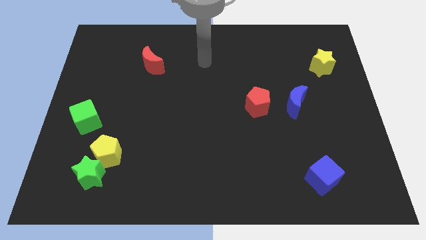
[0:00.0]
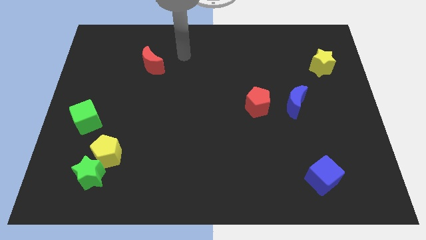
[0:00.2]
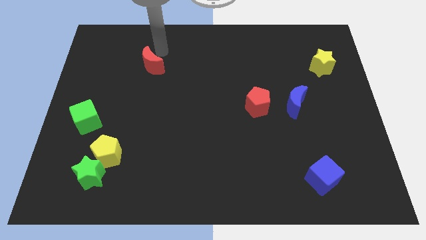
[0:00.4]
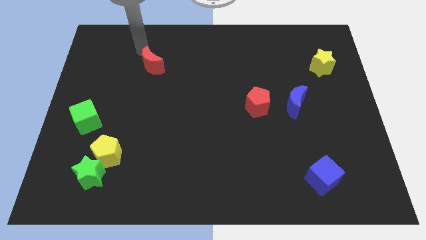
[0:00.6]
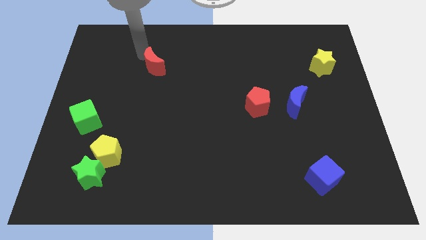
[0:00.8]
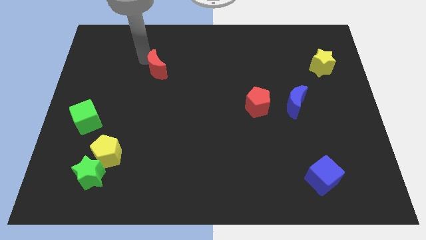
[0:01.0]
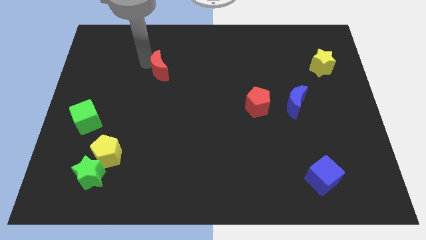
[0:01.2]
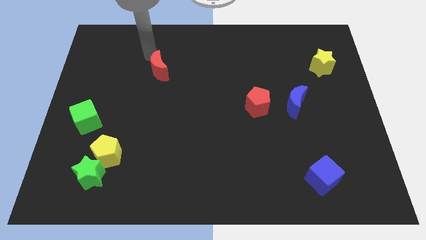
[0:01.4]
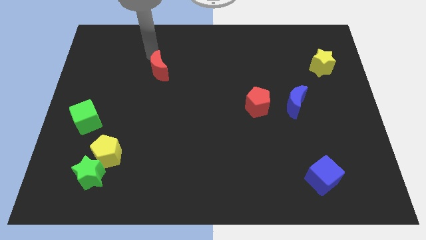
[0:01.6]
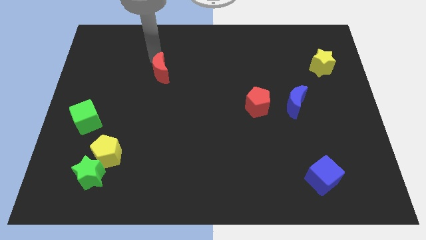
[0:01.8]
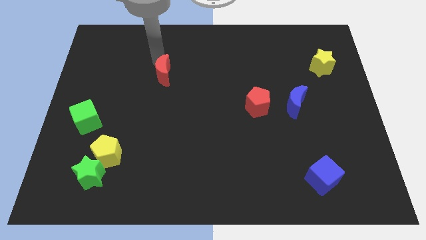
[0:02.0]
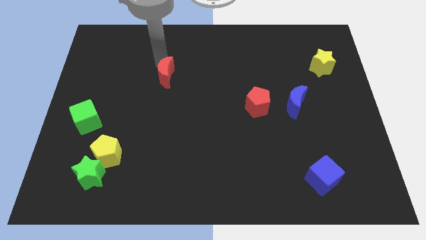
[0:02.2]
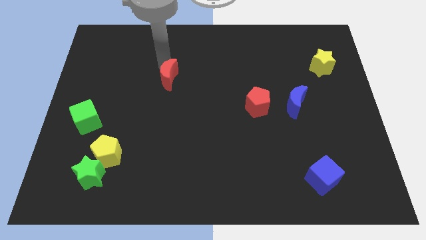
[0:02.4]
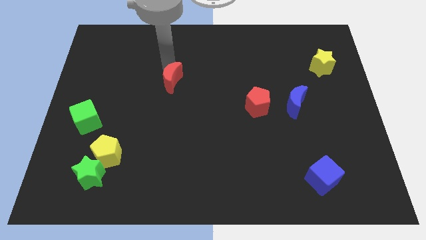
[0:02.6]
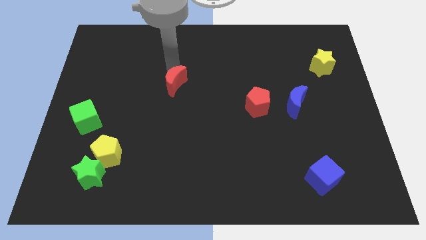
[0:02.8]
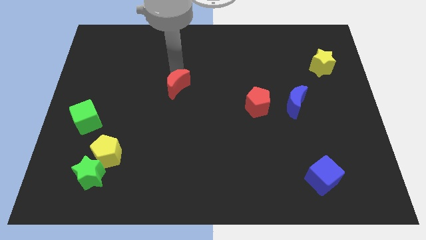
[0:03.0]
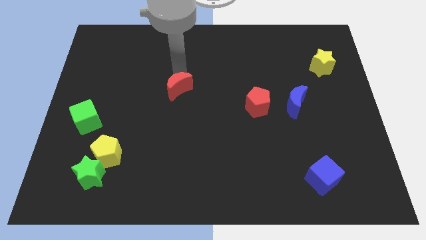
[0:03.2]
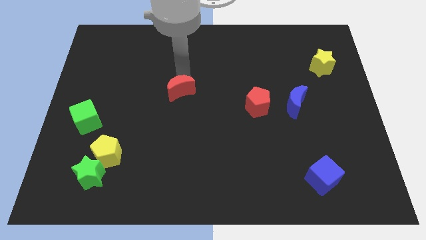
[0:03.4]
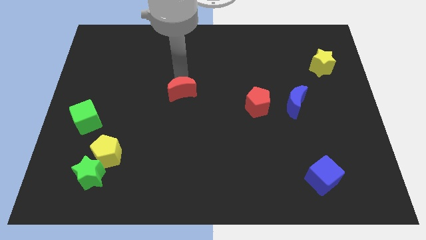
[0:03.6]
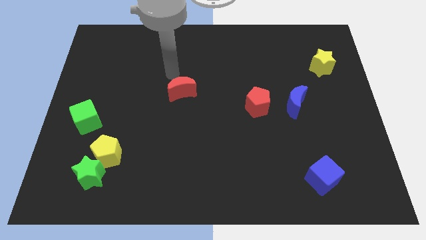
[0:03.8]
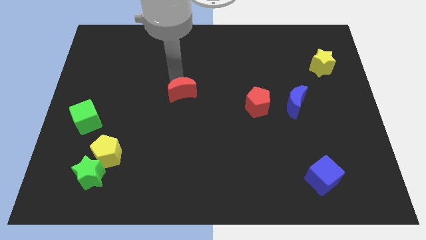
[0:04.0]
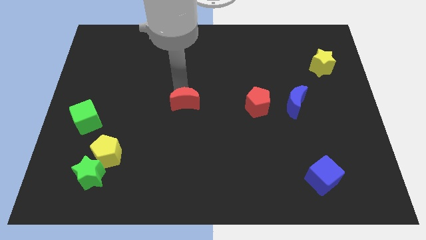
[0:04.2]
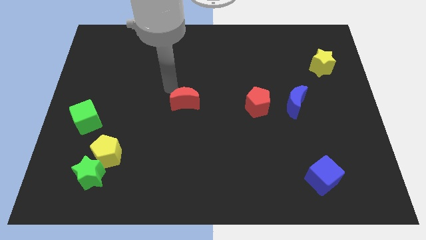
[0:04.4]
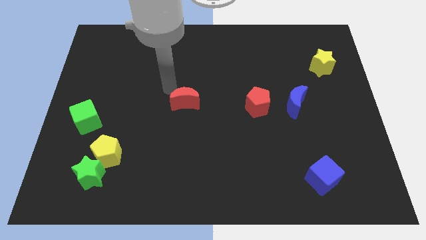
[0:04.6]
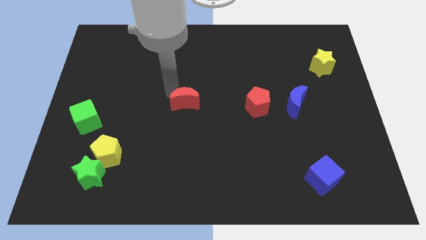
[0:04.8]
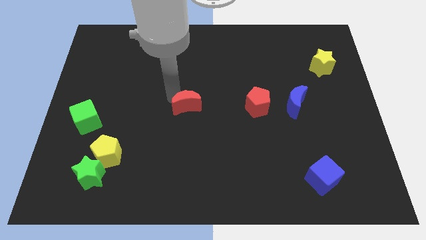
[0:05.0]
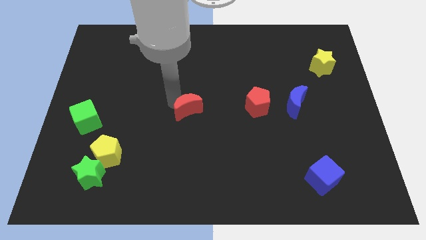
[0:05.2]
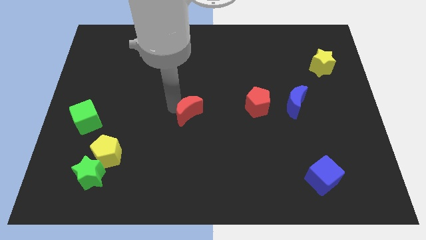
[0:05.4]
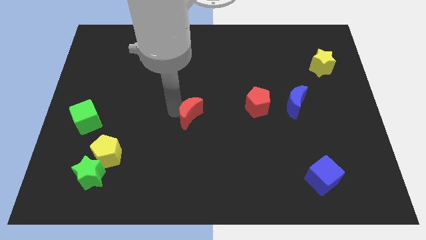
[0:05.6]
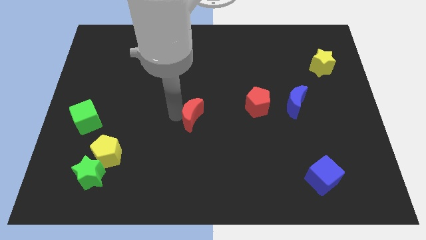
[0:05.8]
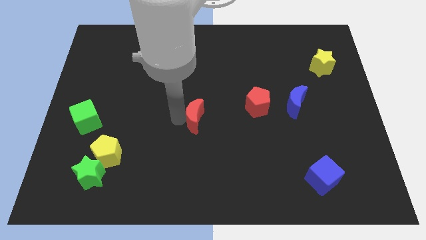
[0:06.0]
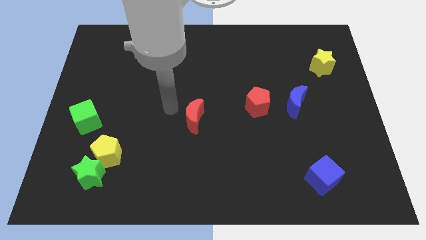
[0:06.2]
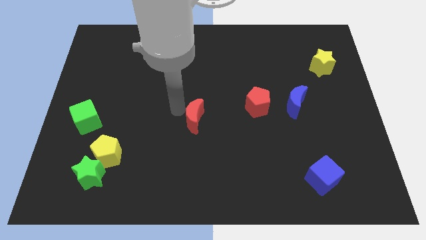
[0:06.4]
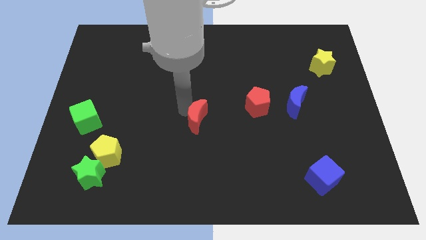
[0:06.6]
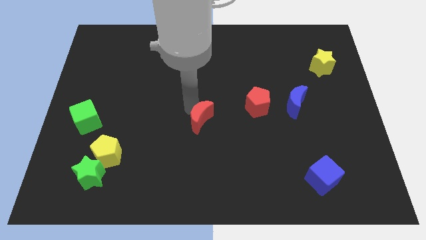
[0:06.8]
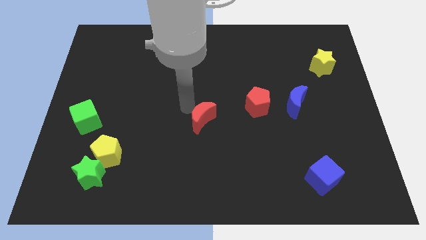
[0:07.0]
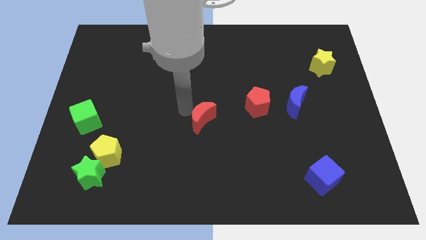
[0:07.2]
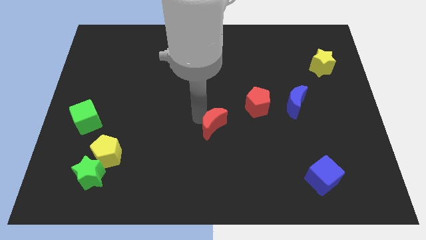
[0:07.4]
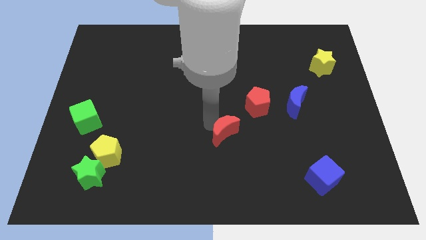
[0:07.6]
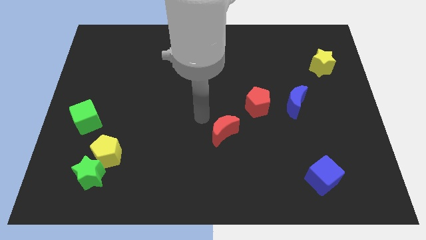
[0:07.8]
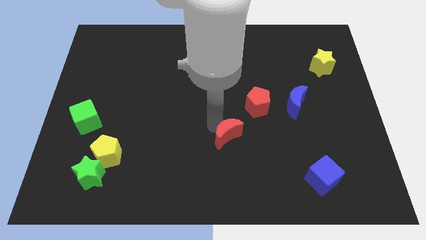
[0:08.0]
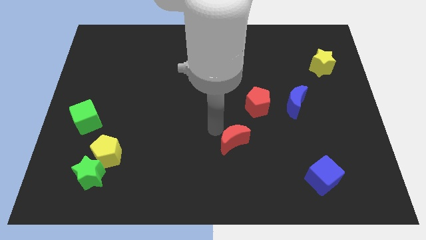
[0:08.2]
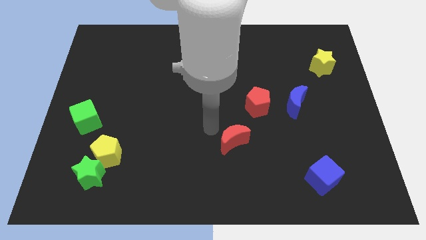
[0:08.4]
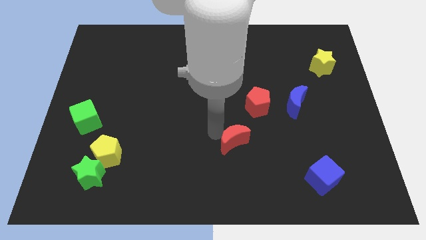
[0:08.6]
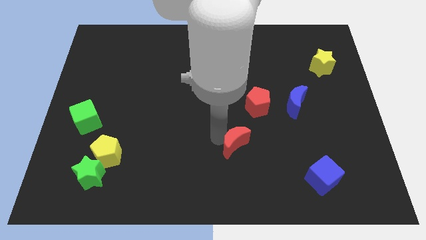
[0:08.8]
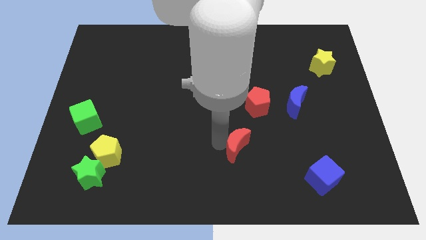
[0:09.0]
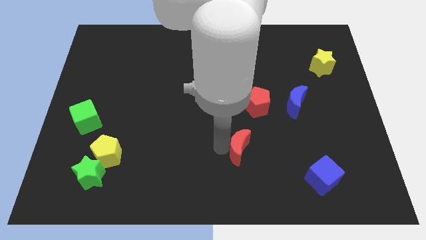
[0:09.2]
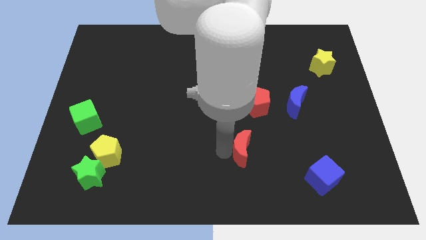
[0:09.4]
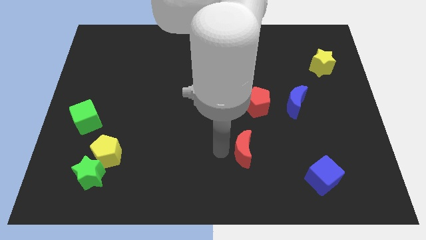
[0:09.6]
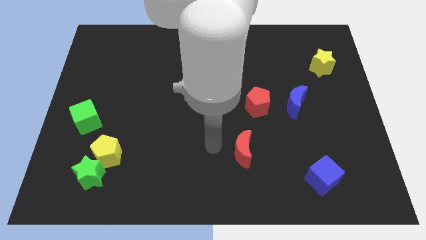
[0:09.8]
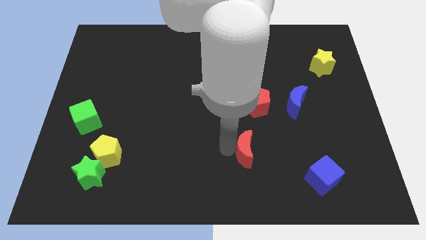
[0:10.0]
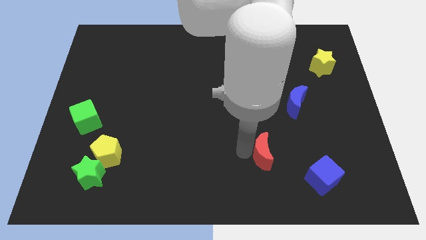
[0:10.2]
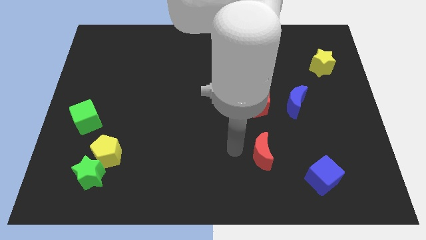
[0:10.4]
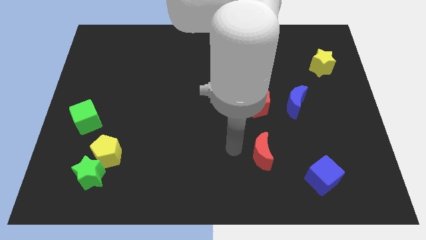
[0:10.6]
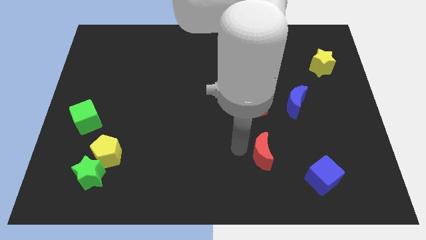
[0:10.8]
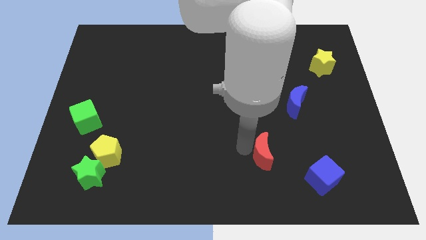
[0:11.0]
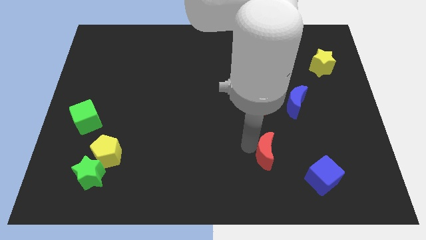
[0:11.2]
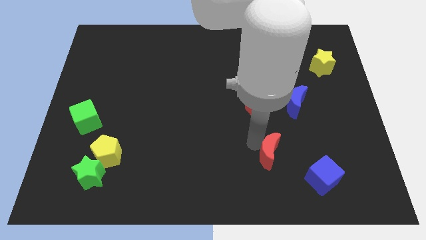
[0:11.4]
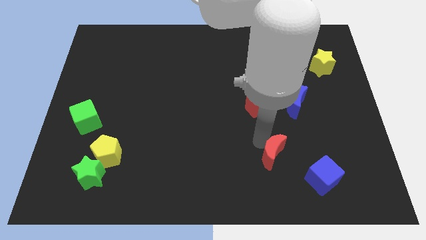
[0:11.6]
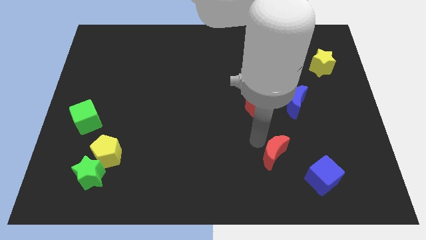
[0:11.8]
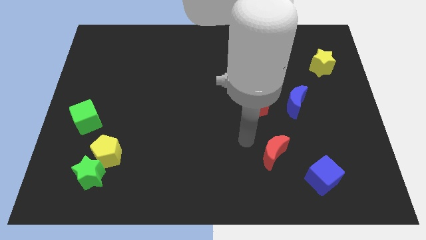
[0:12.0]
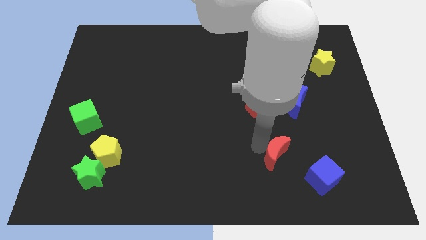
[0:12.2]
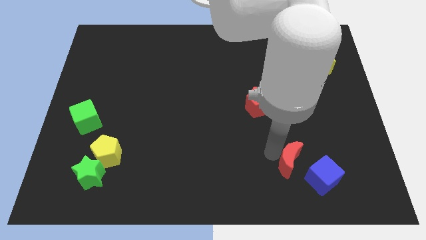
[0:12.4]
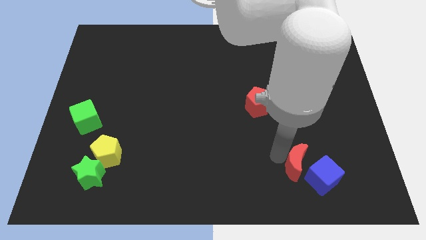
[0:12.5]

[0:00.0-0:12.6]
put the red moon towards the blue cube

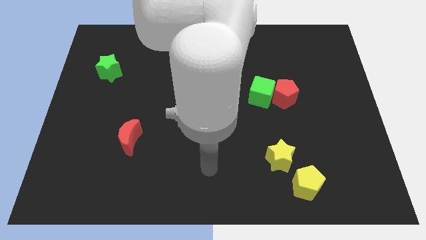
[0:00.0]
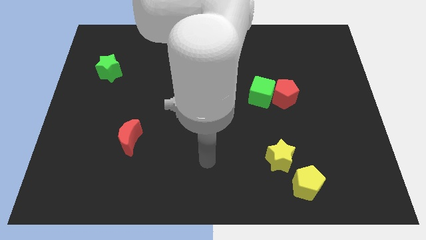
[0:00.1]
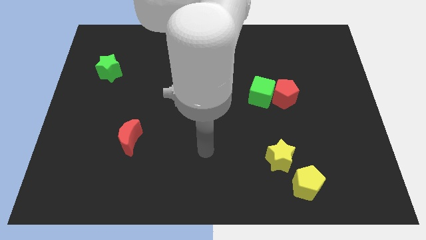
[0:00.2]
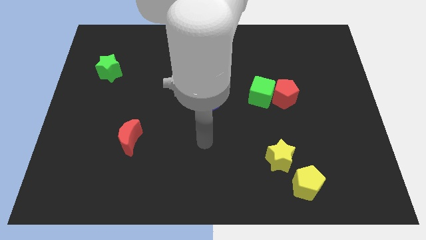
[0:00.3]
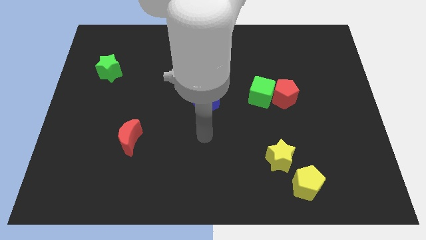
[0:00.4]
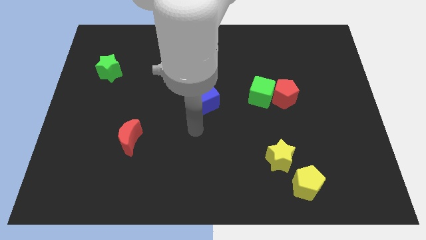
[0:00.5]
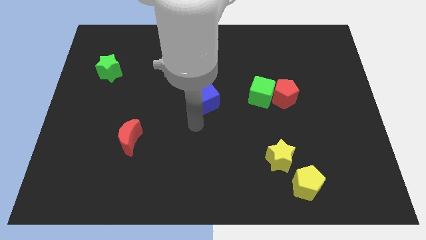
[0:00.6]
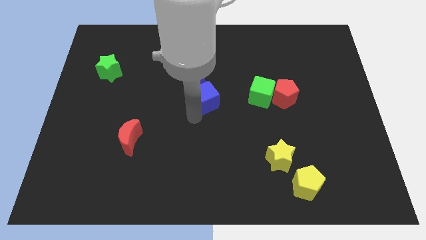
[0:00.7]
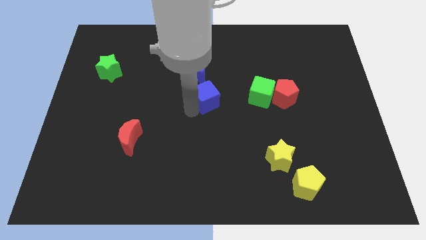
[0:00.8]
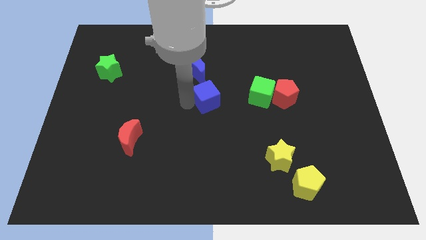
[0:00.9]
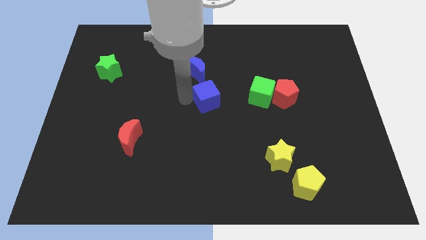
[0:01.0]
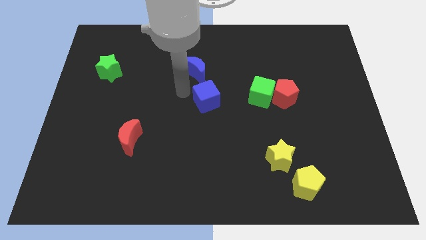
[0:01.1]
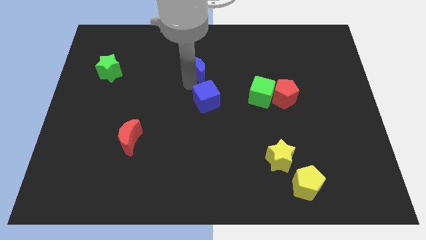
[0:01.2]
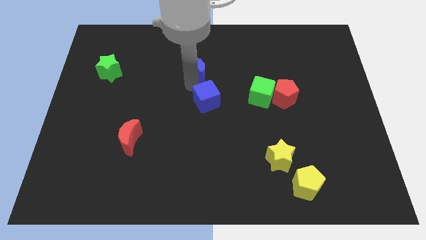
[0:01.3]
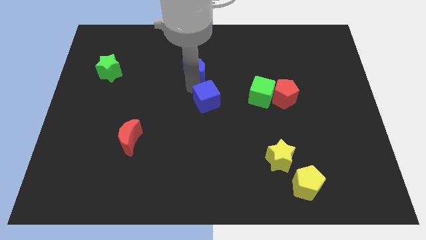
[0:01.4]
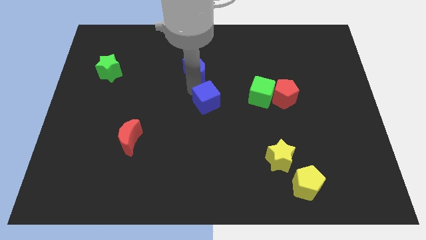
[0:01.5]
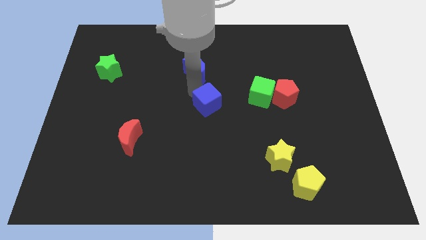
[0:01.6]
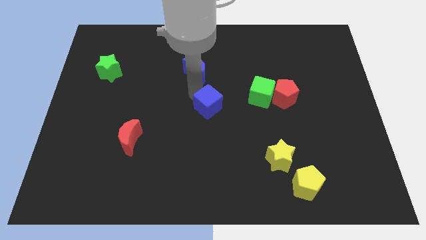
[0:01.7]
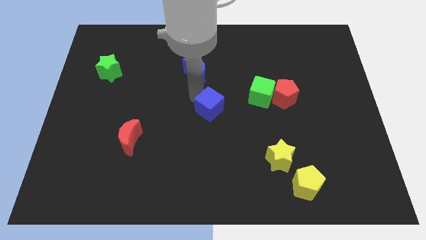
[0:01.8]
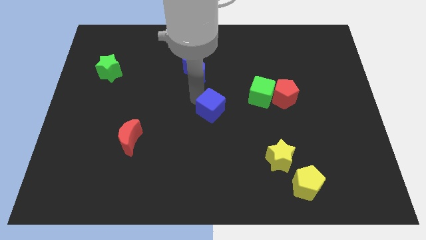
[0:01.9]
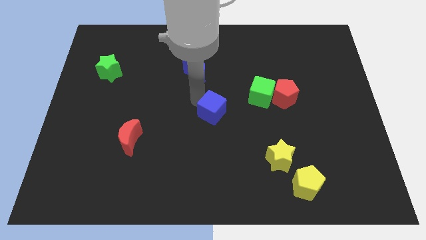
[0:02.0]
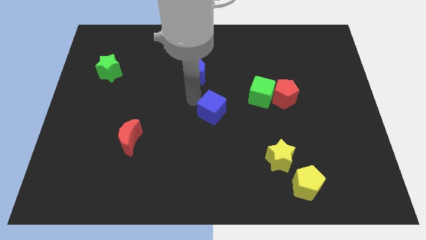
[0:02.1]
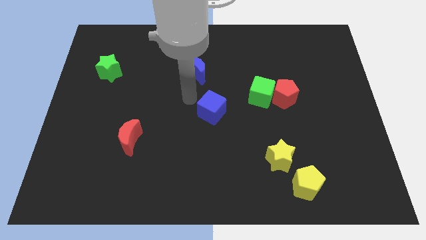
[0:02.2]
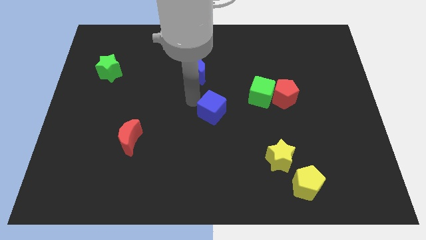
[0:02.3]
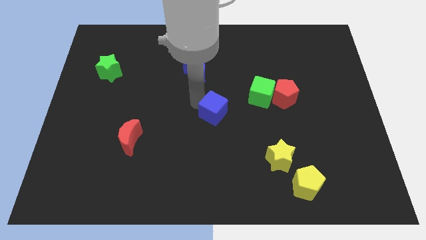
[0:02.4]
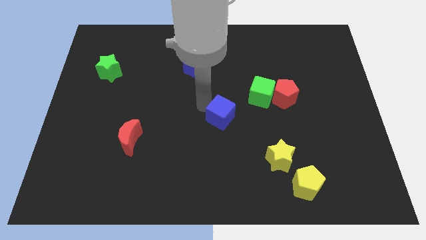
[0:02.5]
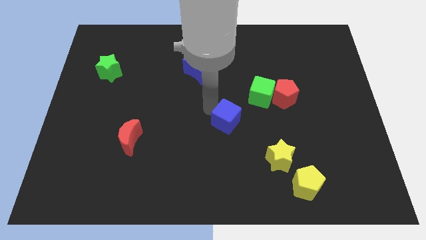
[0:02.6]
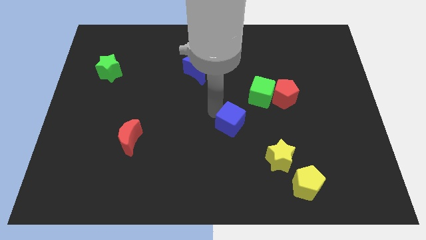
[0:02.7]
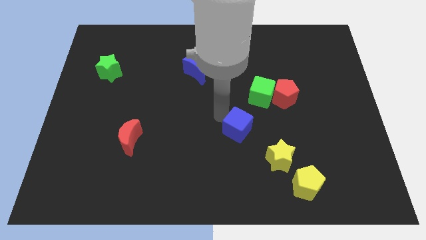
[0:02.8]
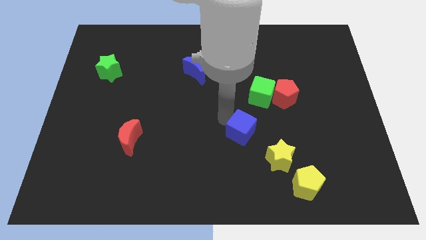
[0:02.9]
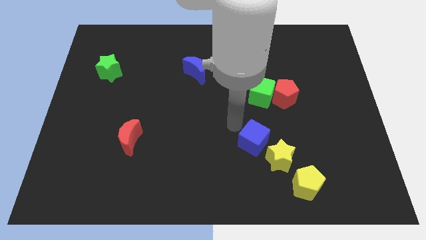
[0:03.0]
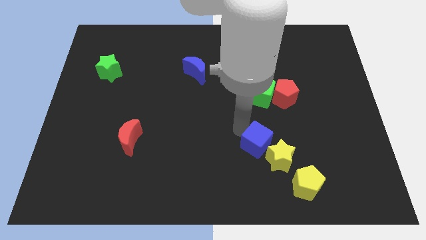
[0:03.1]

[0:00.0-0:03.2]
move the blue cube next to the yellow star
